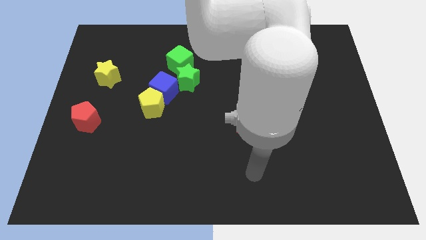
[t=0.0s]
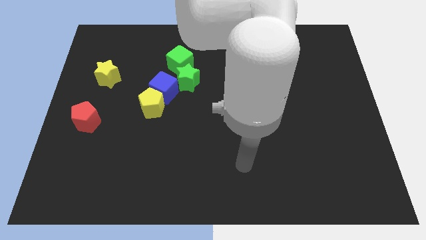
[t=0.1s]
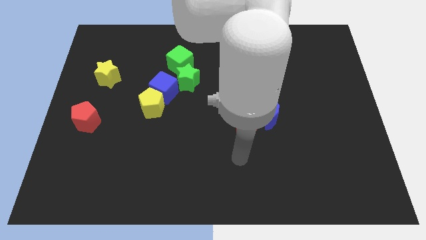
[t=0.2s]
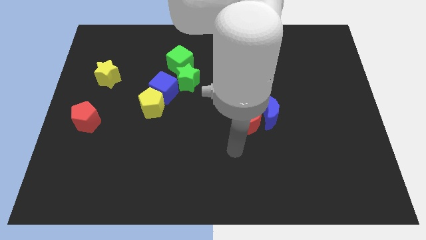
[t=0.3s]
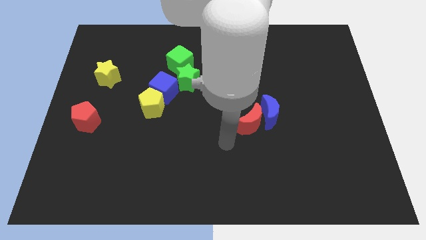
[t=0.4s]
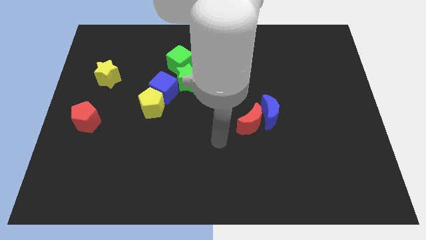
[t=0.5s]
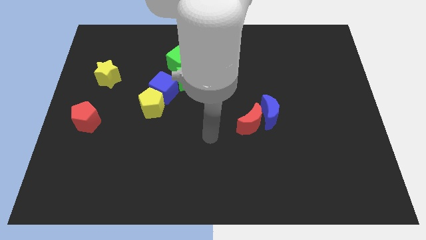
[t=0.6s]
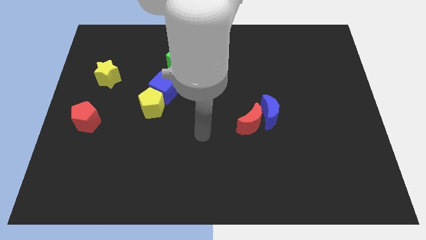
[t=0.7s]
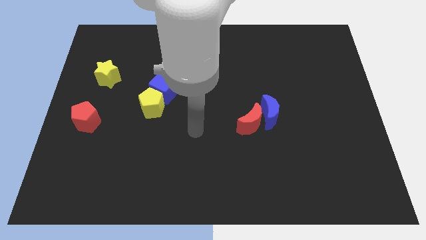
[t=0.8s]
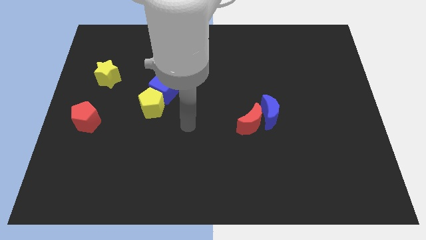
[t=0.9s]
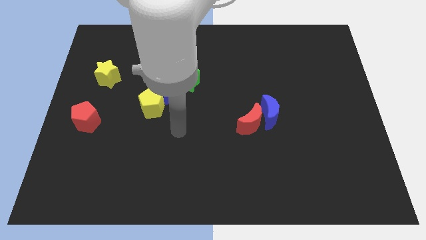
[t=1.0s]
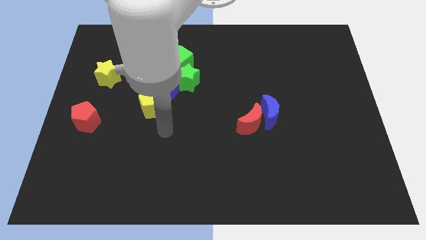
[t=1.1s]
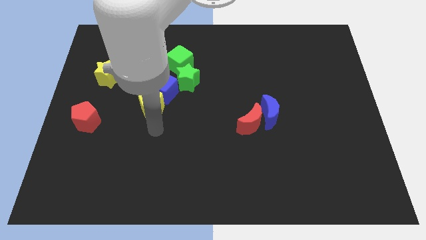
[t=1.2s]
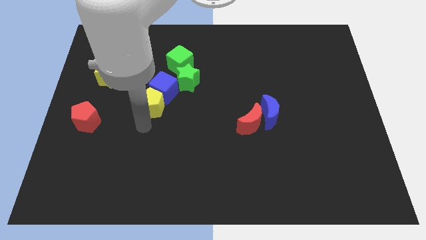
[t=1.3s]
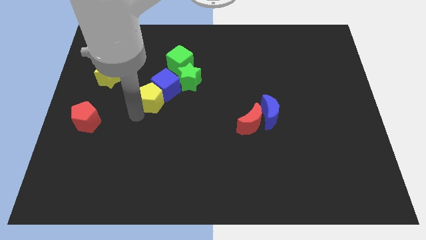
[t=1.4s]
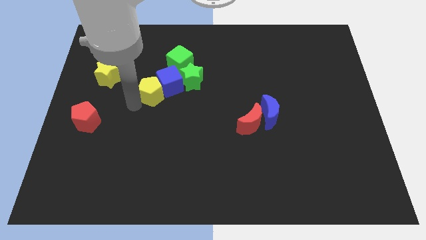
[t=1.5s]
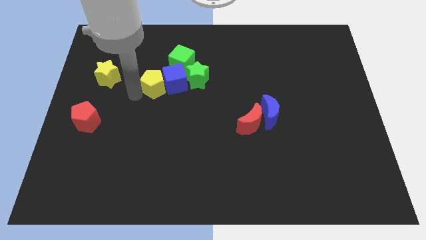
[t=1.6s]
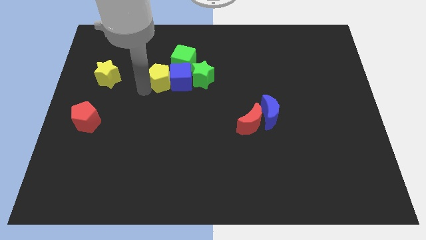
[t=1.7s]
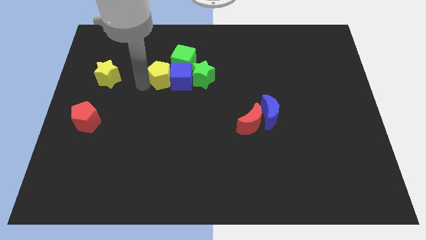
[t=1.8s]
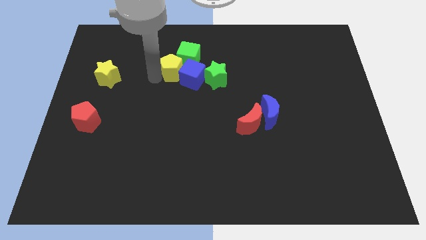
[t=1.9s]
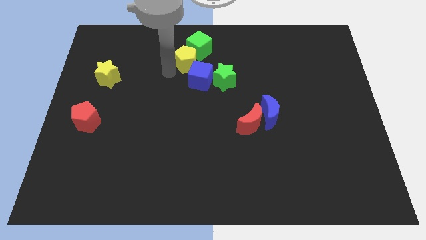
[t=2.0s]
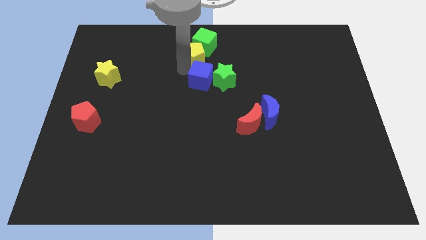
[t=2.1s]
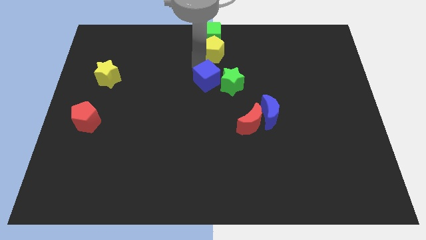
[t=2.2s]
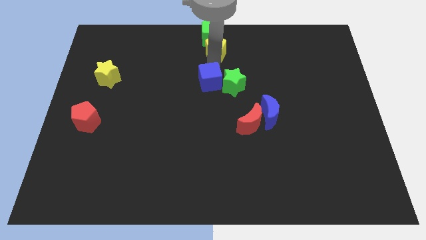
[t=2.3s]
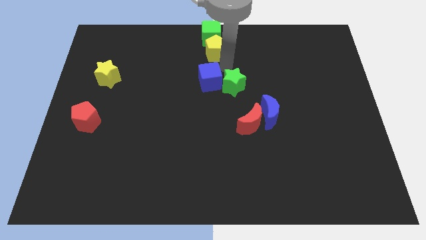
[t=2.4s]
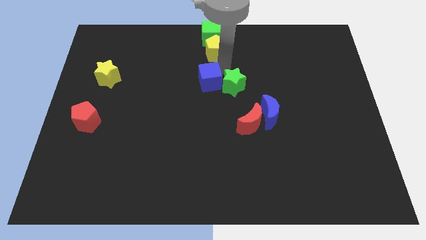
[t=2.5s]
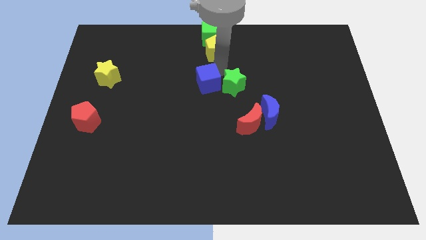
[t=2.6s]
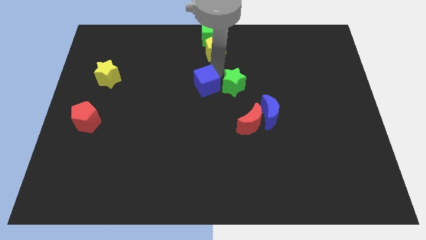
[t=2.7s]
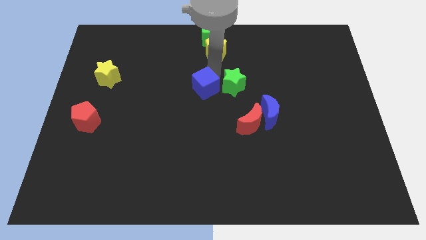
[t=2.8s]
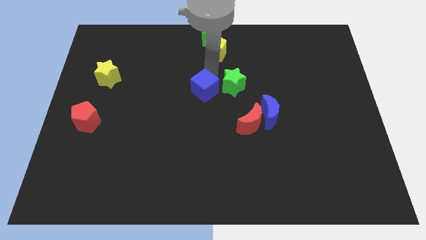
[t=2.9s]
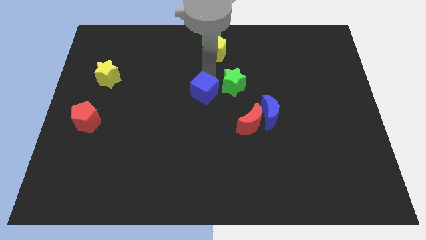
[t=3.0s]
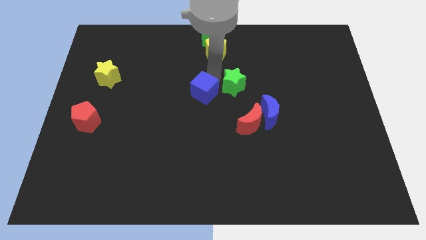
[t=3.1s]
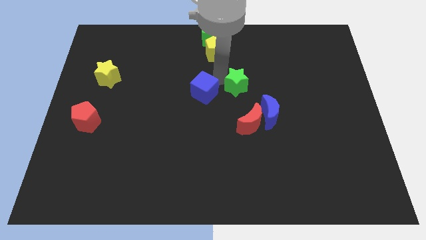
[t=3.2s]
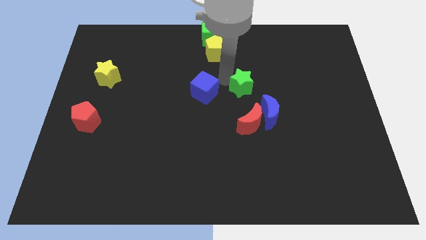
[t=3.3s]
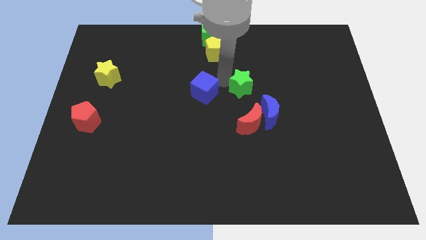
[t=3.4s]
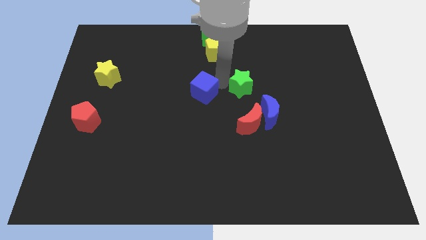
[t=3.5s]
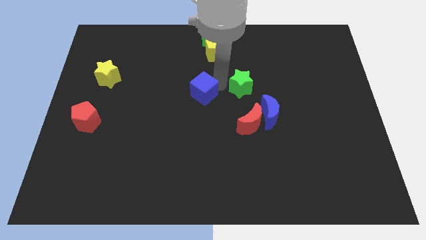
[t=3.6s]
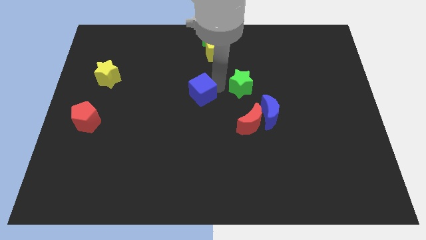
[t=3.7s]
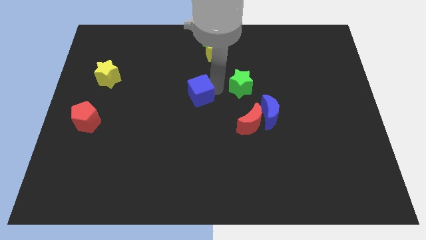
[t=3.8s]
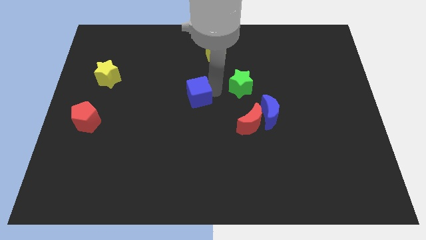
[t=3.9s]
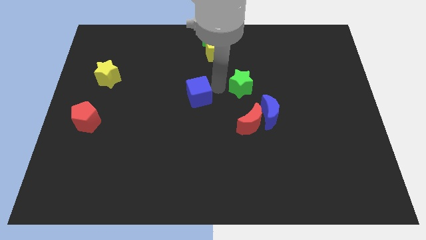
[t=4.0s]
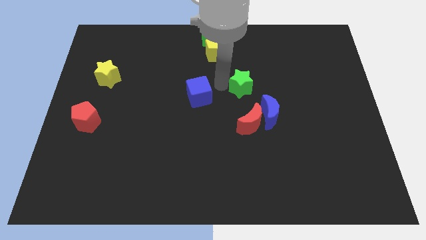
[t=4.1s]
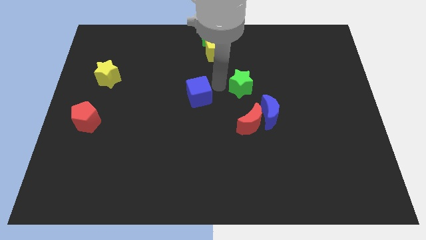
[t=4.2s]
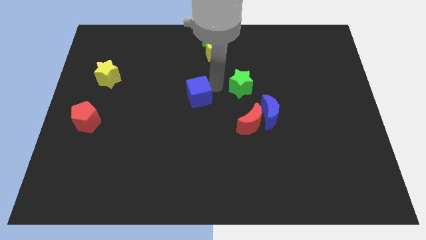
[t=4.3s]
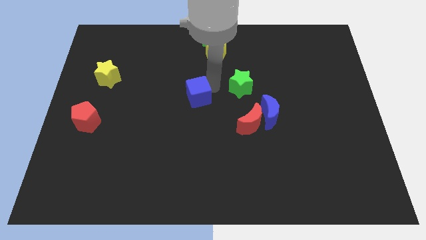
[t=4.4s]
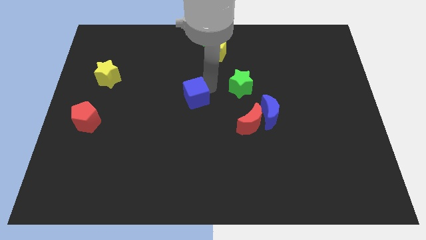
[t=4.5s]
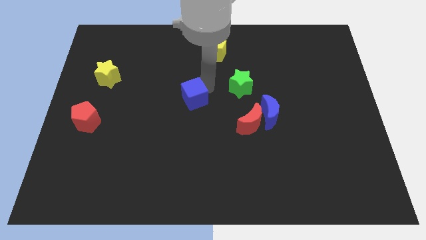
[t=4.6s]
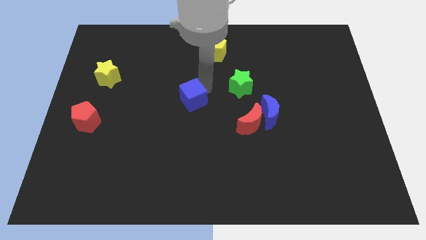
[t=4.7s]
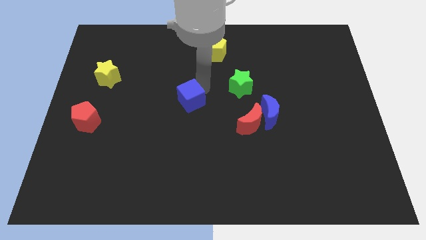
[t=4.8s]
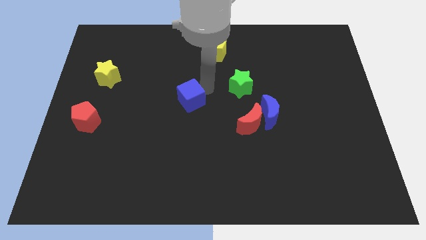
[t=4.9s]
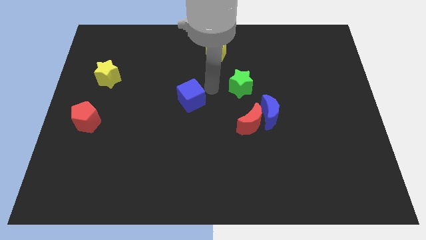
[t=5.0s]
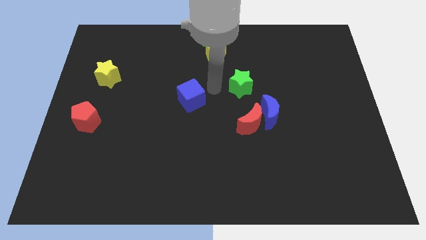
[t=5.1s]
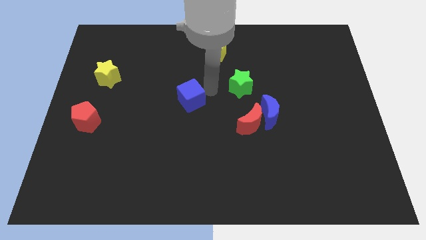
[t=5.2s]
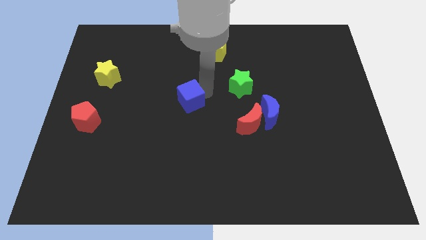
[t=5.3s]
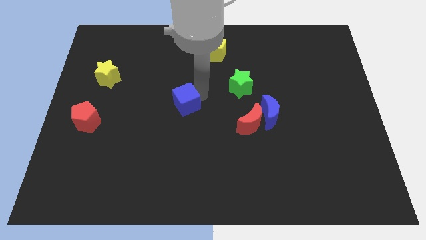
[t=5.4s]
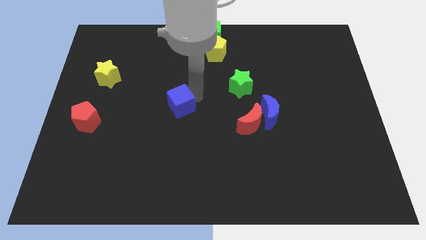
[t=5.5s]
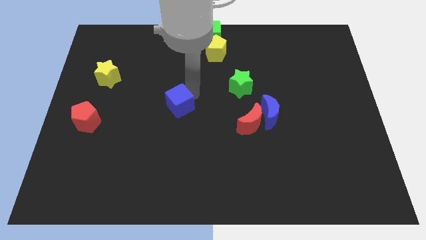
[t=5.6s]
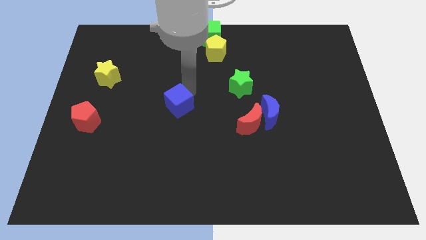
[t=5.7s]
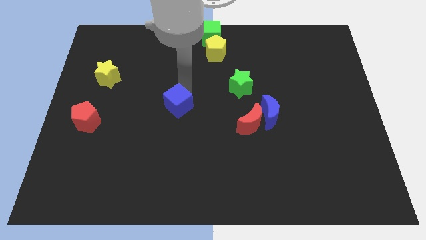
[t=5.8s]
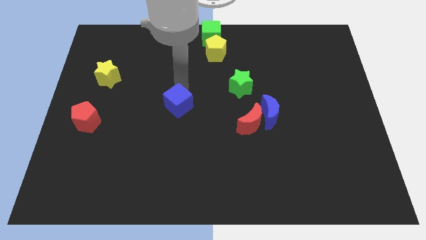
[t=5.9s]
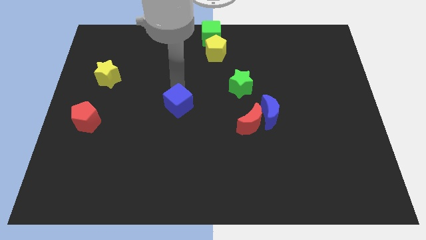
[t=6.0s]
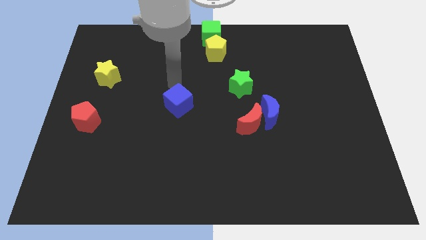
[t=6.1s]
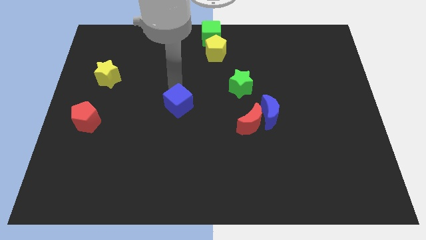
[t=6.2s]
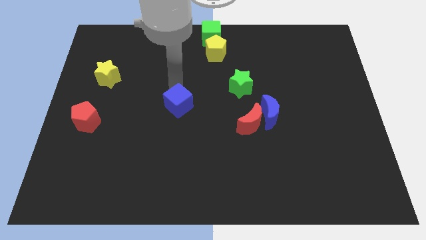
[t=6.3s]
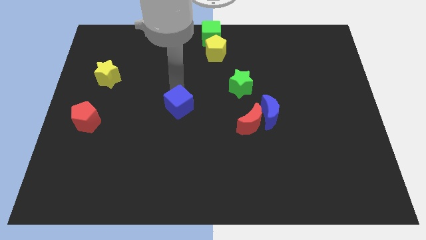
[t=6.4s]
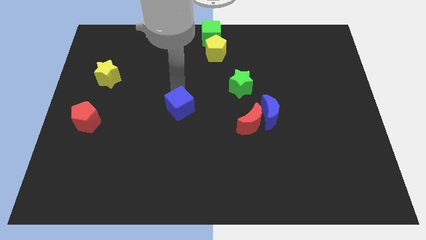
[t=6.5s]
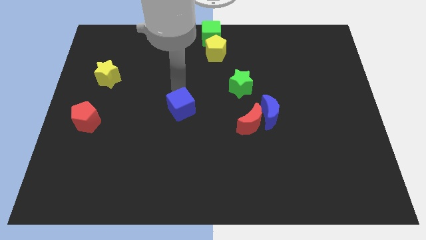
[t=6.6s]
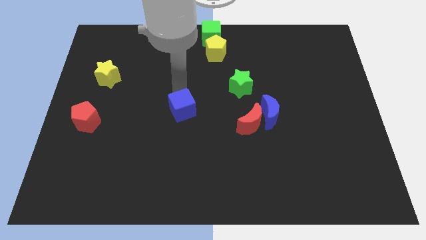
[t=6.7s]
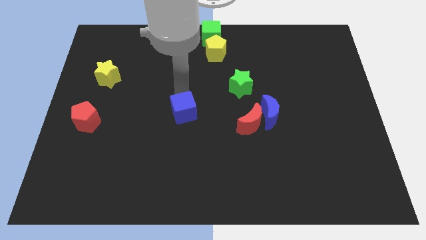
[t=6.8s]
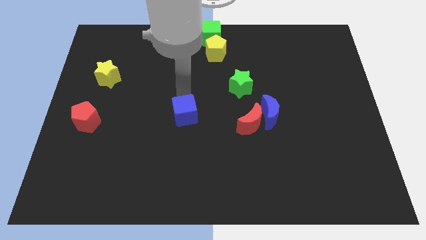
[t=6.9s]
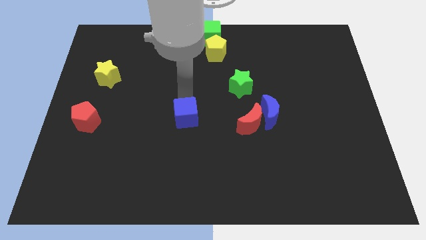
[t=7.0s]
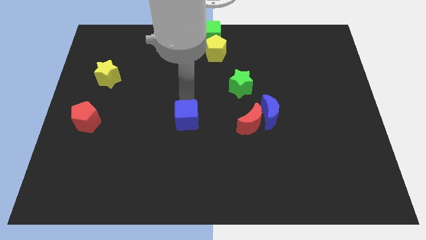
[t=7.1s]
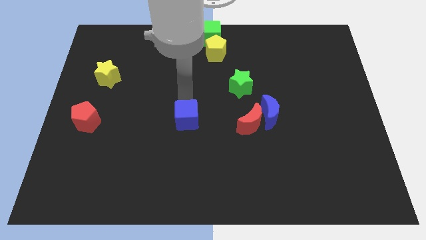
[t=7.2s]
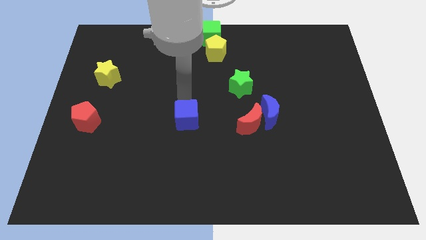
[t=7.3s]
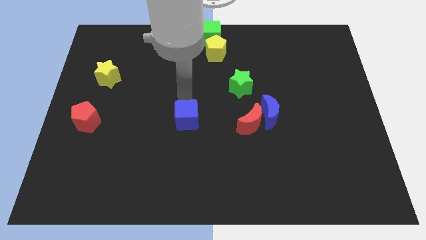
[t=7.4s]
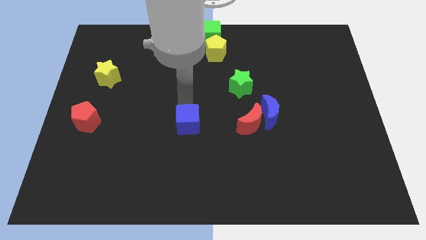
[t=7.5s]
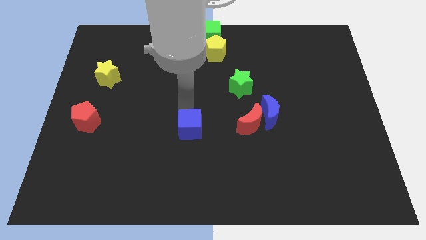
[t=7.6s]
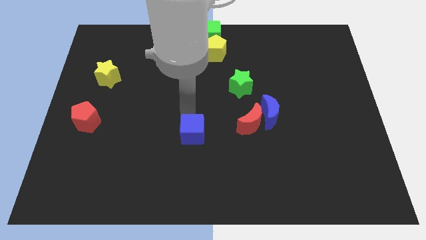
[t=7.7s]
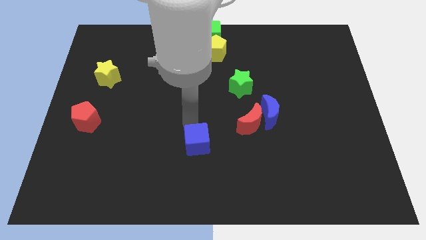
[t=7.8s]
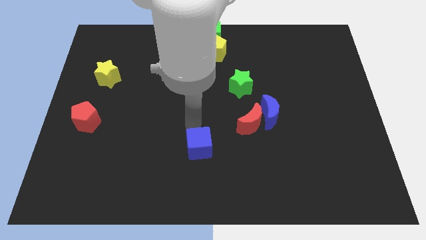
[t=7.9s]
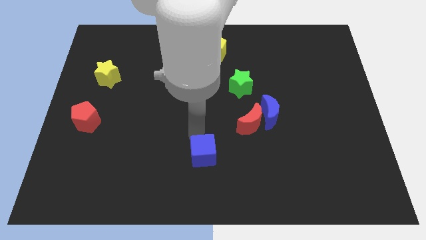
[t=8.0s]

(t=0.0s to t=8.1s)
put the blue cube to the bottom side
